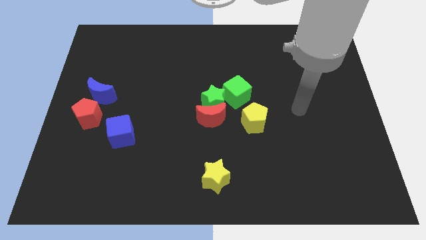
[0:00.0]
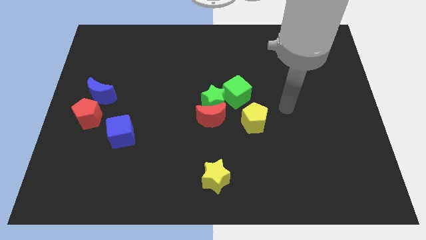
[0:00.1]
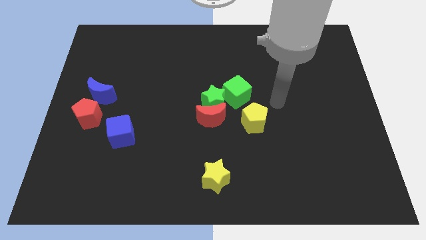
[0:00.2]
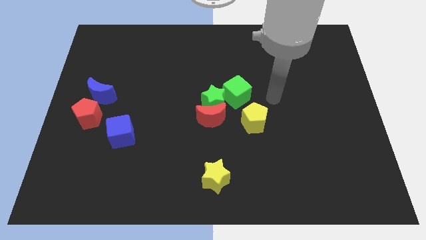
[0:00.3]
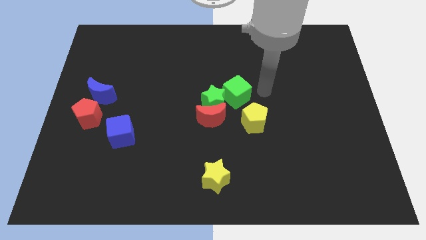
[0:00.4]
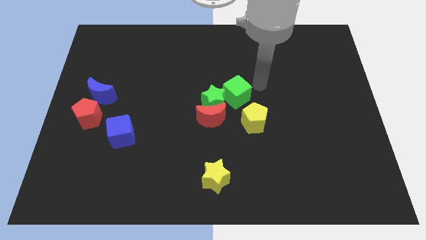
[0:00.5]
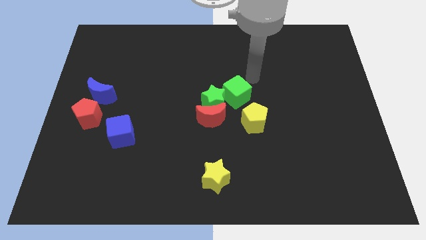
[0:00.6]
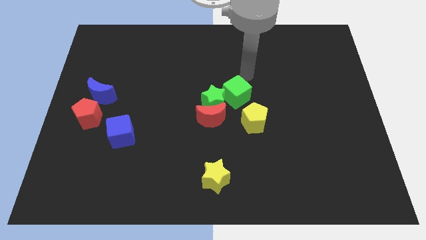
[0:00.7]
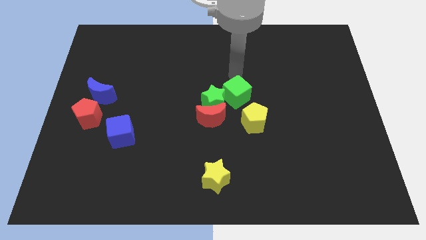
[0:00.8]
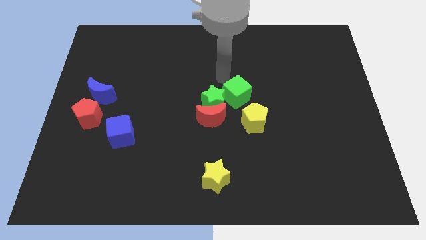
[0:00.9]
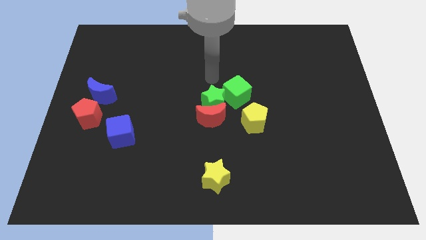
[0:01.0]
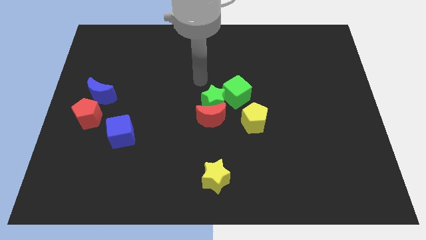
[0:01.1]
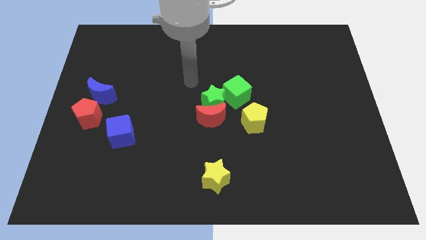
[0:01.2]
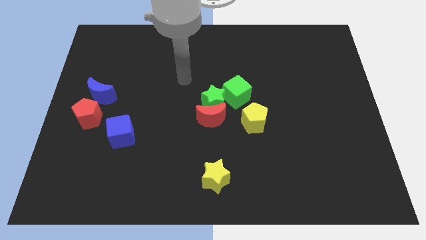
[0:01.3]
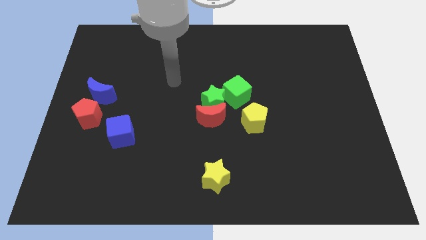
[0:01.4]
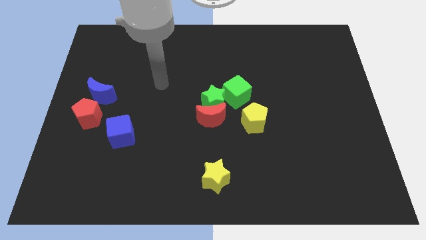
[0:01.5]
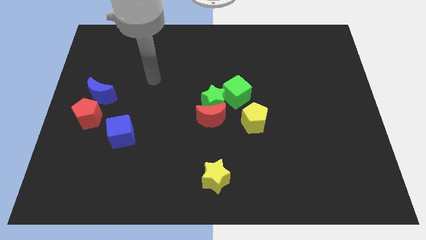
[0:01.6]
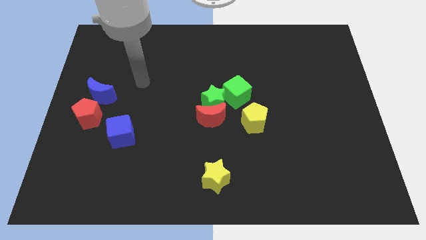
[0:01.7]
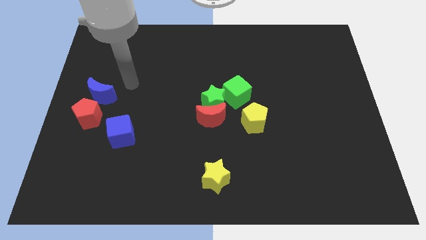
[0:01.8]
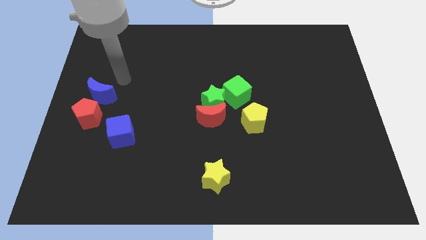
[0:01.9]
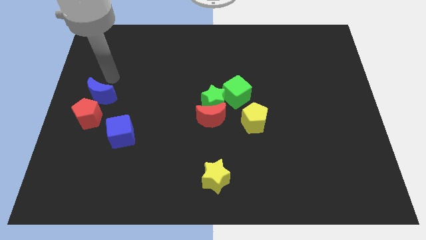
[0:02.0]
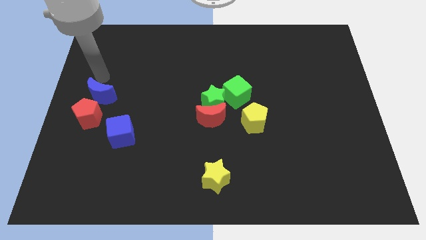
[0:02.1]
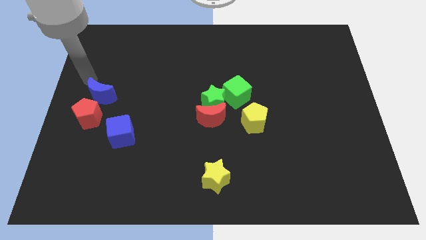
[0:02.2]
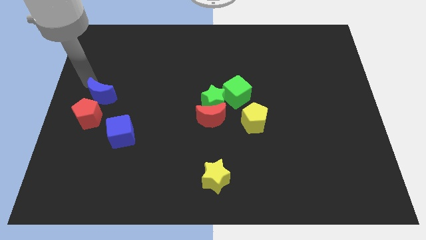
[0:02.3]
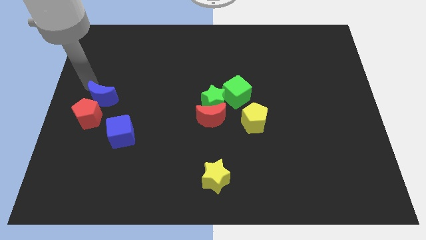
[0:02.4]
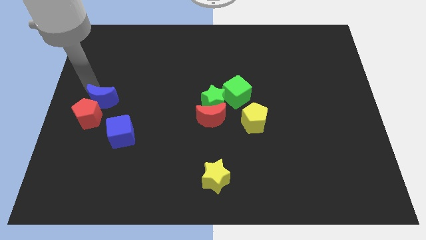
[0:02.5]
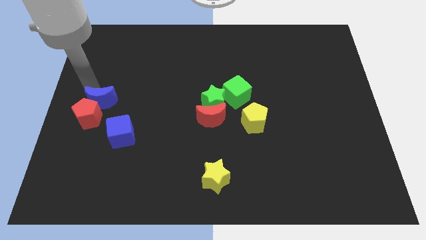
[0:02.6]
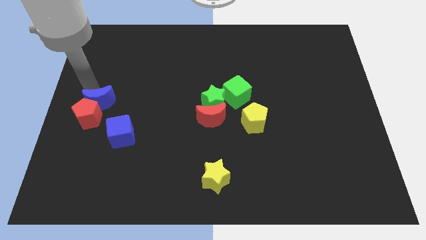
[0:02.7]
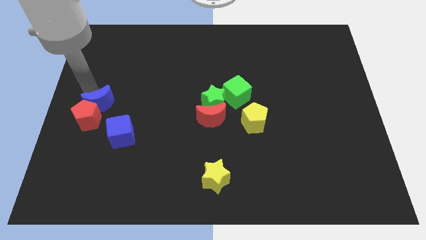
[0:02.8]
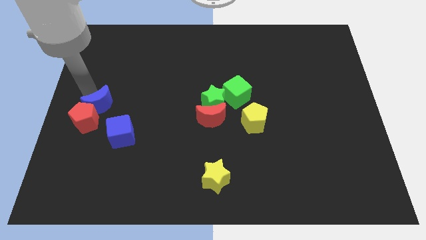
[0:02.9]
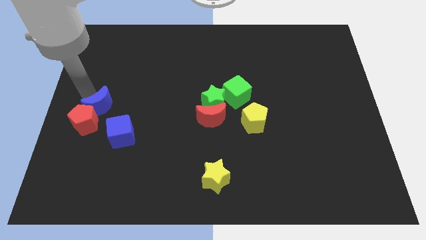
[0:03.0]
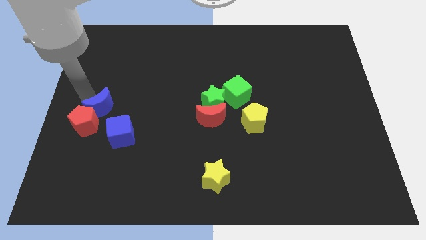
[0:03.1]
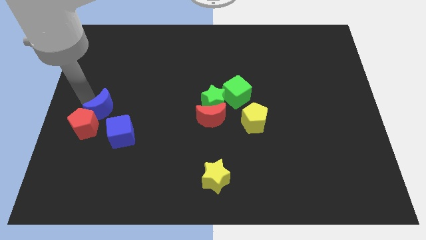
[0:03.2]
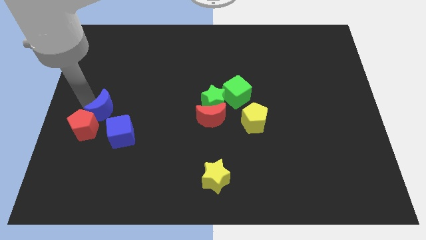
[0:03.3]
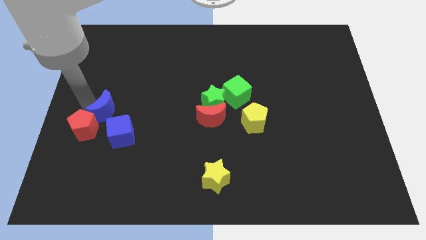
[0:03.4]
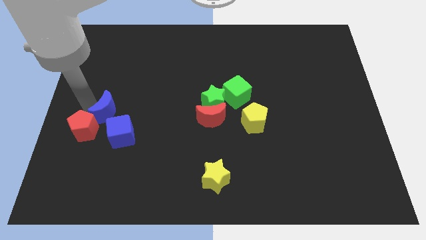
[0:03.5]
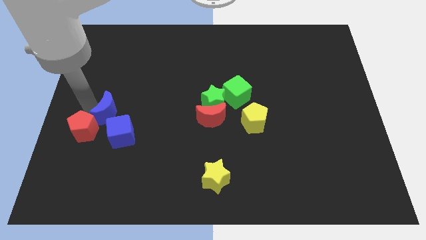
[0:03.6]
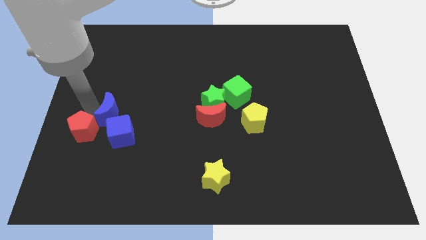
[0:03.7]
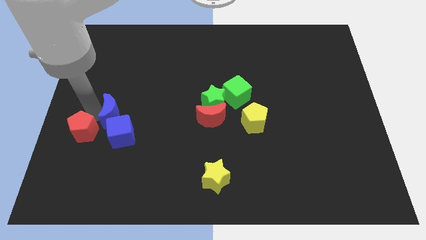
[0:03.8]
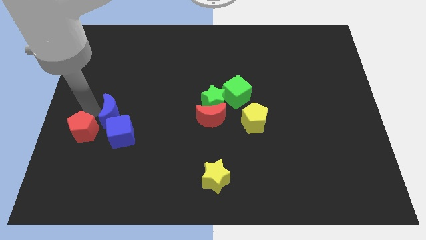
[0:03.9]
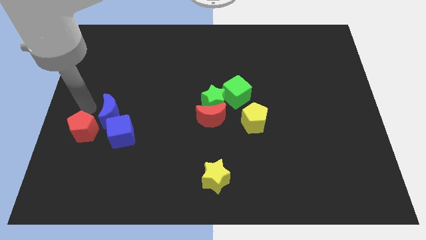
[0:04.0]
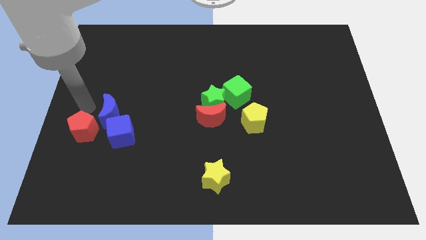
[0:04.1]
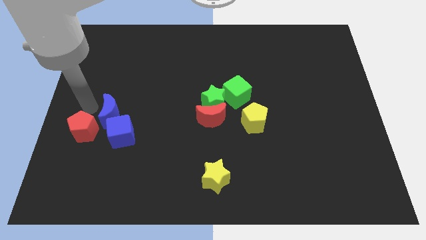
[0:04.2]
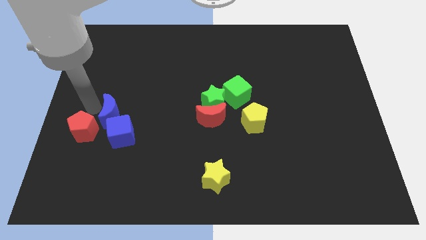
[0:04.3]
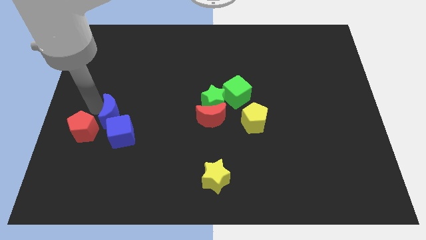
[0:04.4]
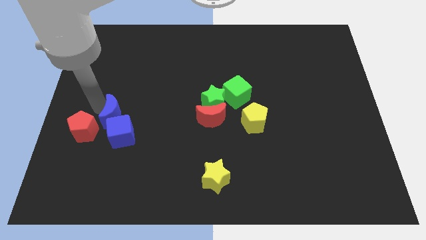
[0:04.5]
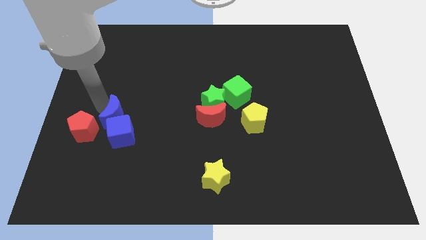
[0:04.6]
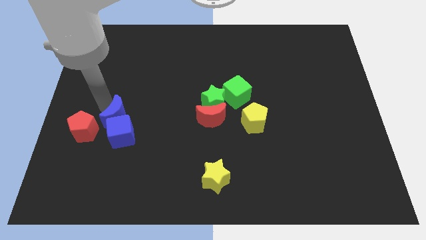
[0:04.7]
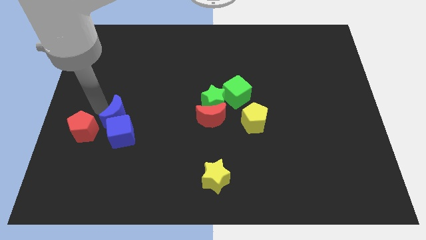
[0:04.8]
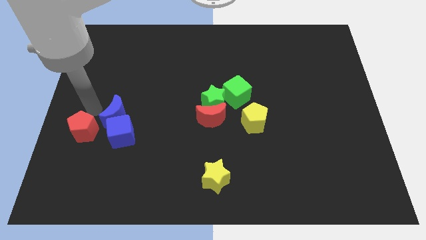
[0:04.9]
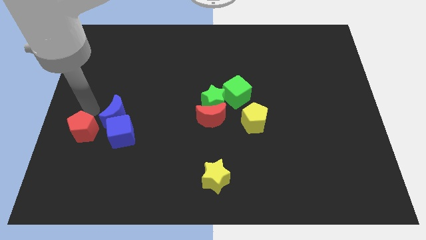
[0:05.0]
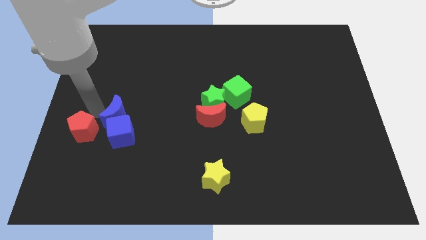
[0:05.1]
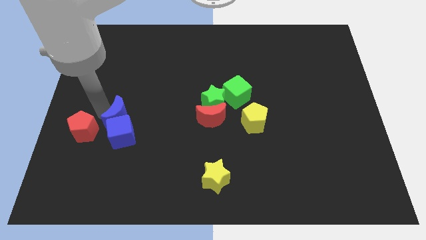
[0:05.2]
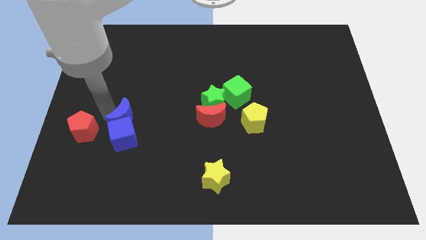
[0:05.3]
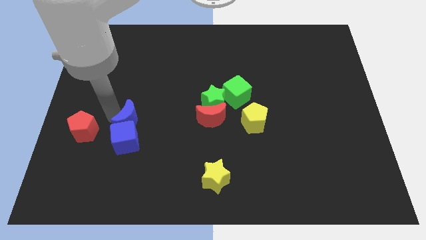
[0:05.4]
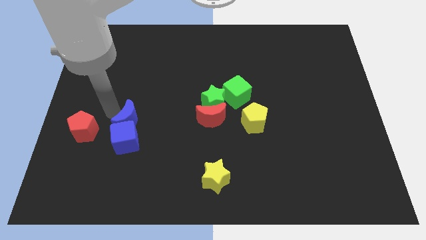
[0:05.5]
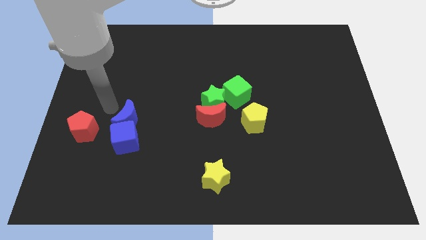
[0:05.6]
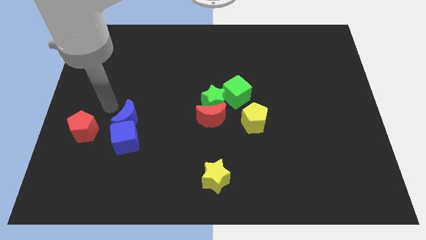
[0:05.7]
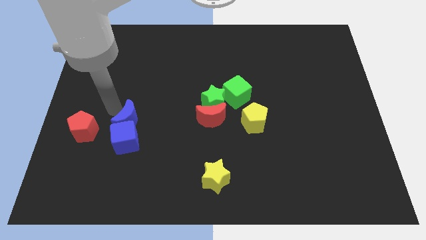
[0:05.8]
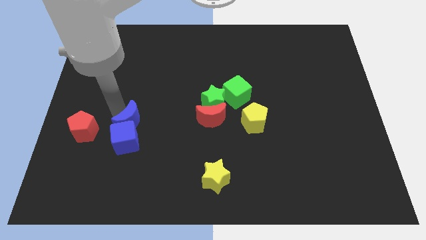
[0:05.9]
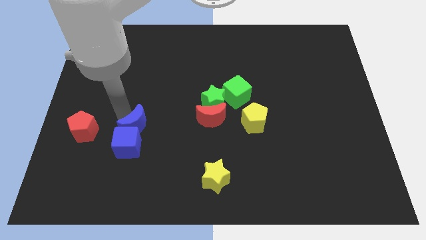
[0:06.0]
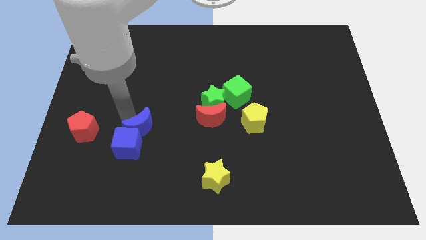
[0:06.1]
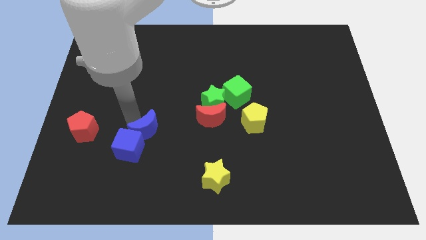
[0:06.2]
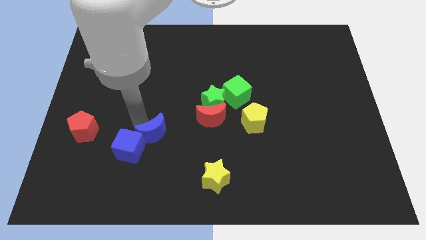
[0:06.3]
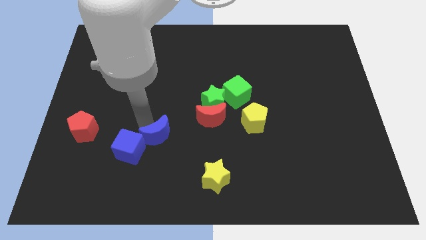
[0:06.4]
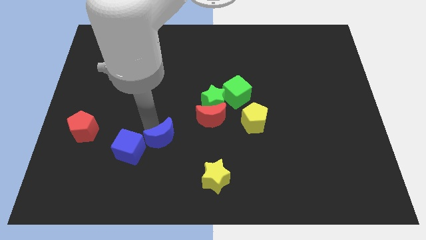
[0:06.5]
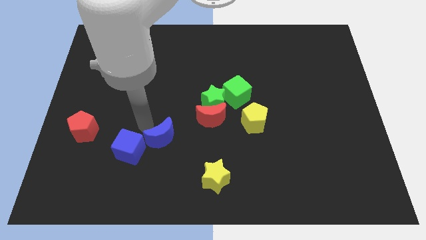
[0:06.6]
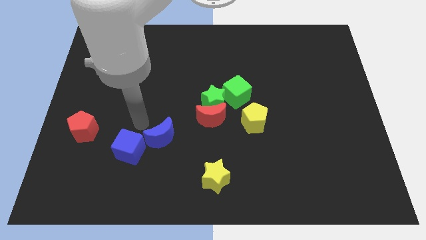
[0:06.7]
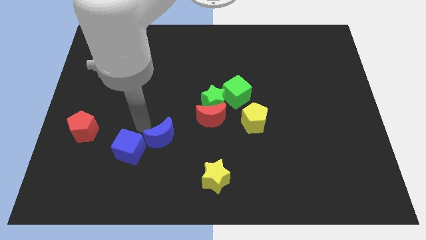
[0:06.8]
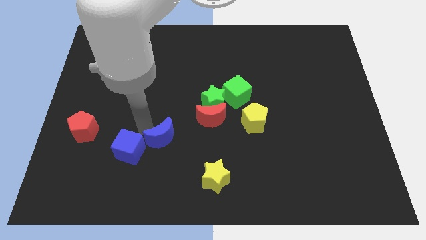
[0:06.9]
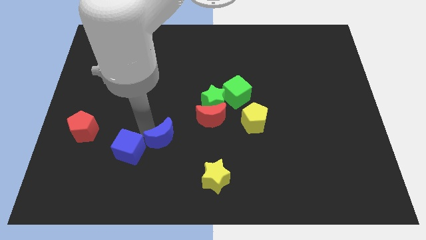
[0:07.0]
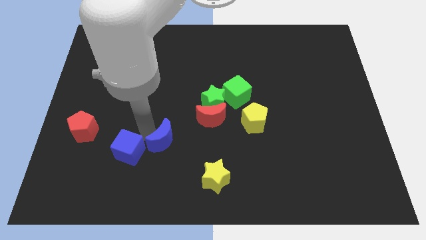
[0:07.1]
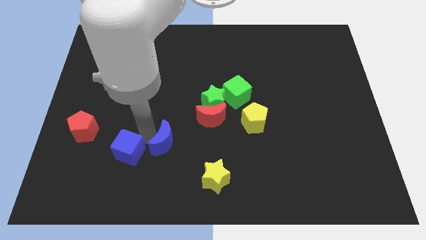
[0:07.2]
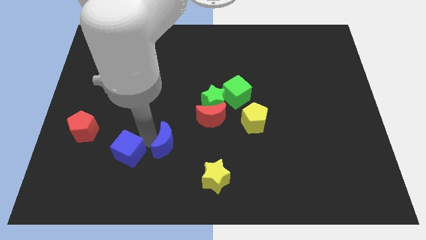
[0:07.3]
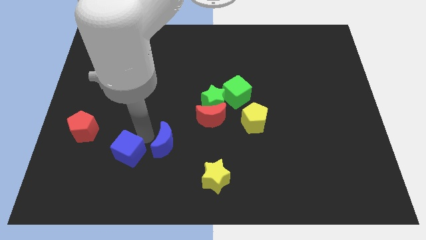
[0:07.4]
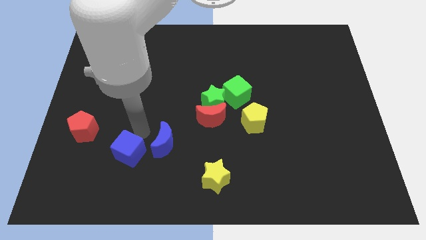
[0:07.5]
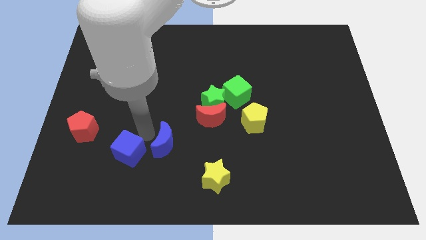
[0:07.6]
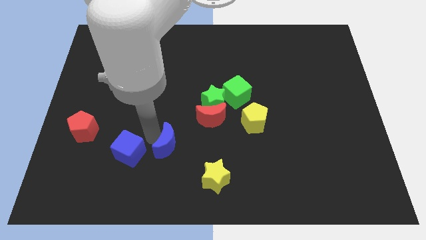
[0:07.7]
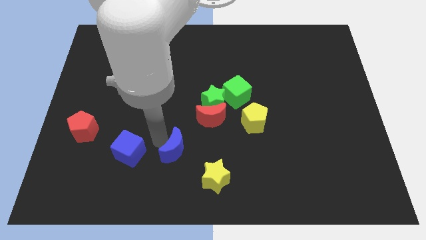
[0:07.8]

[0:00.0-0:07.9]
slide the blue moon diagonally up and to the left of the yellow star
